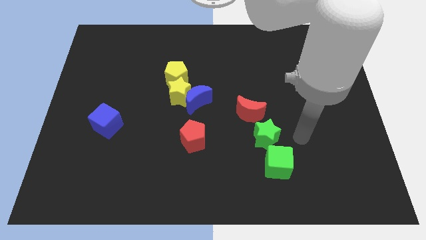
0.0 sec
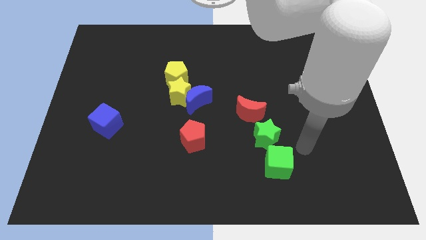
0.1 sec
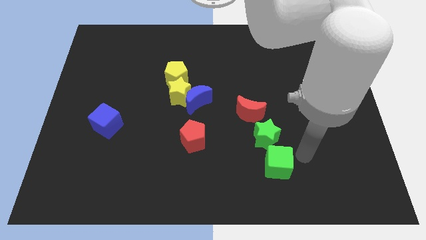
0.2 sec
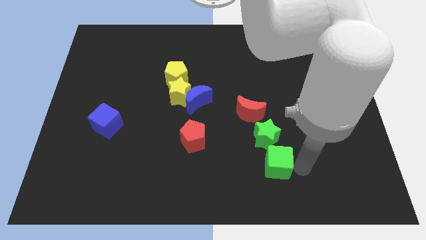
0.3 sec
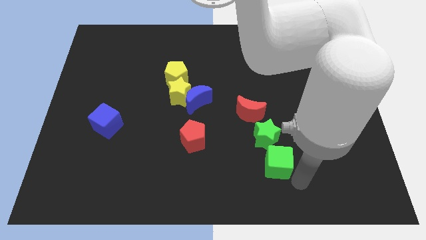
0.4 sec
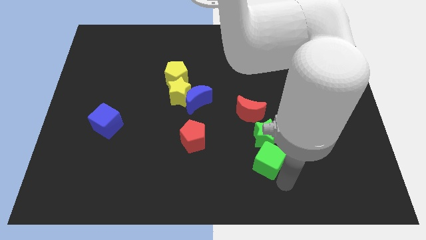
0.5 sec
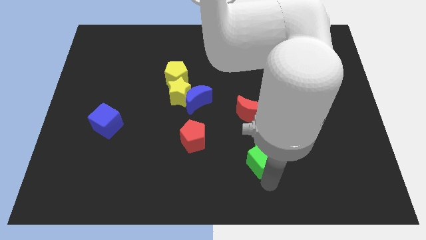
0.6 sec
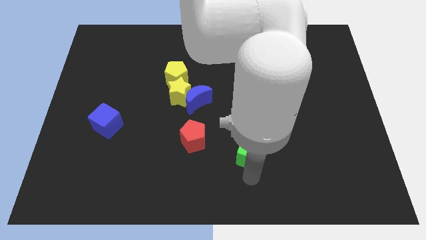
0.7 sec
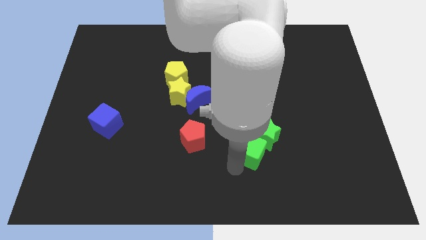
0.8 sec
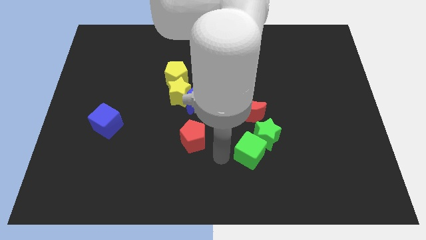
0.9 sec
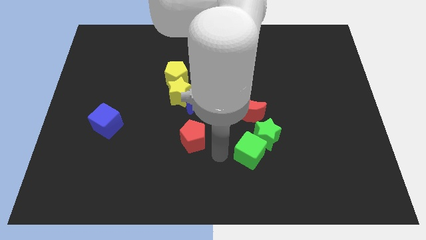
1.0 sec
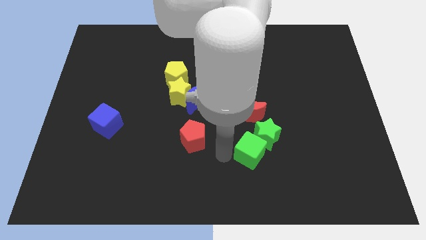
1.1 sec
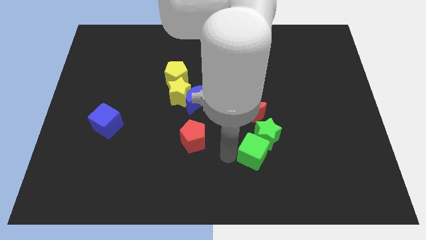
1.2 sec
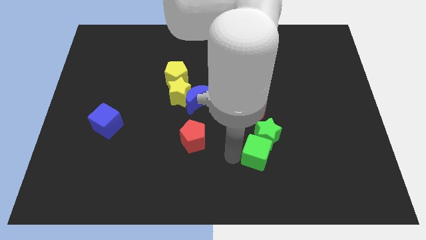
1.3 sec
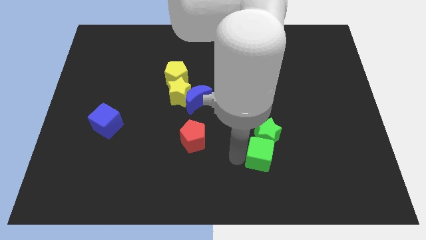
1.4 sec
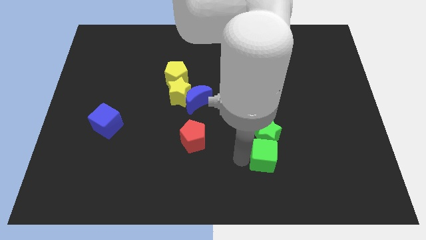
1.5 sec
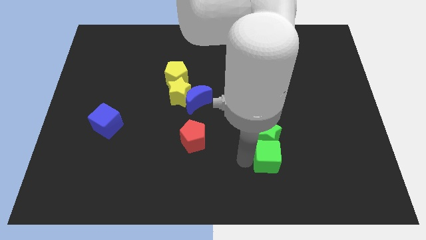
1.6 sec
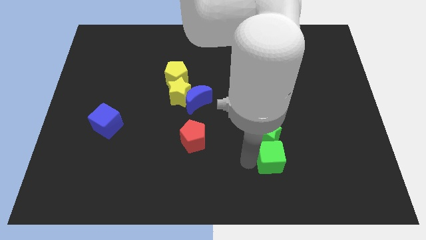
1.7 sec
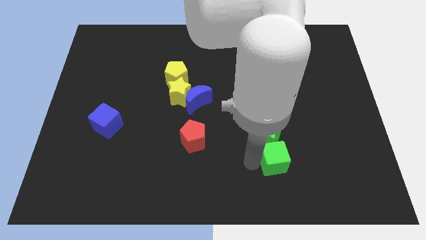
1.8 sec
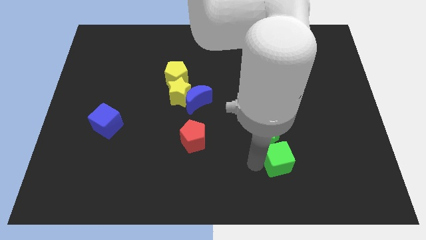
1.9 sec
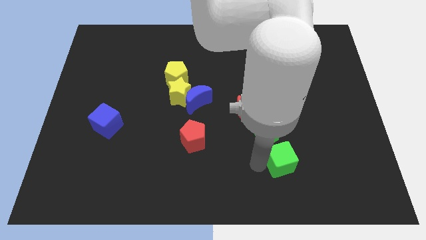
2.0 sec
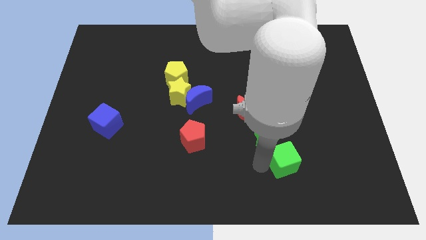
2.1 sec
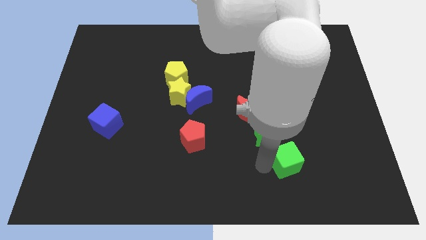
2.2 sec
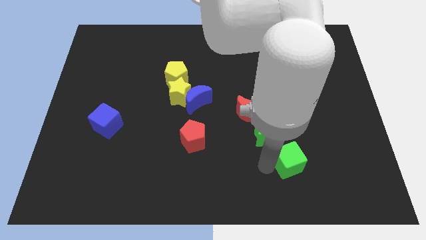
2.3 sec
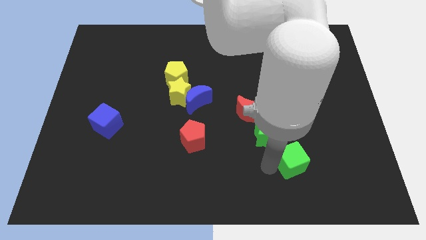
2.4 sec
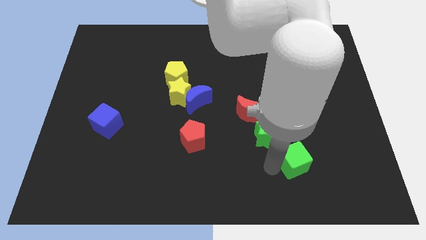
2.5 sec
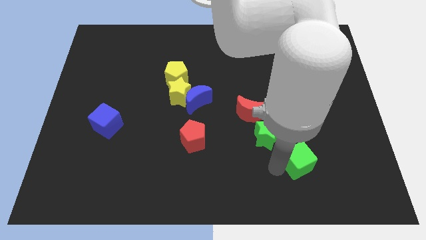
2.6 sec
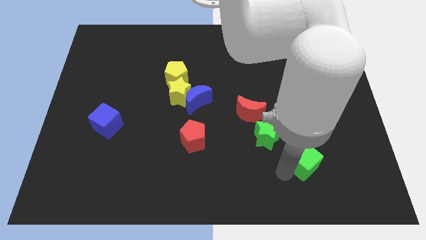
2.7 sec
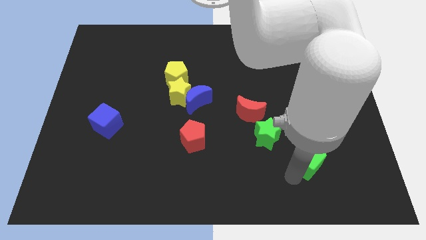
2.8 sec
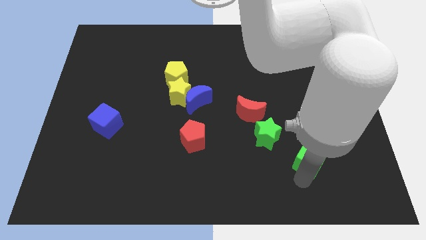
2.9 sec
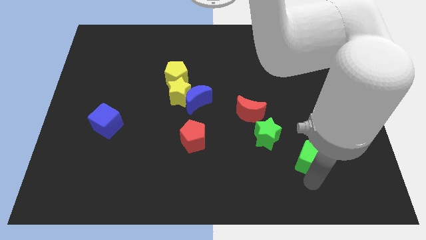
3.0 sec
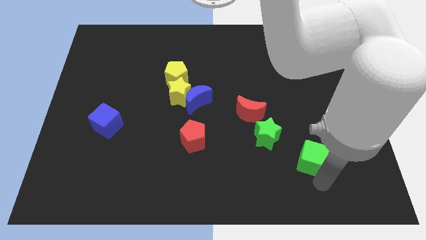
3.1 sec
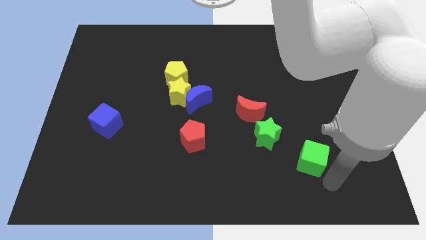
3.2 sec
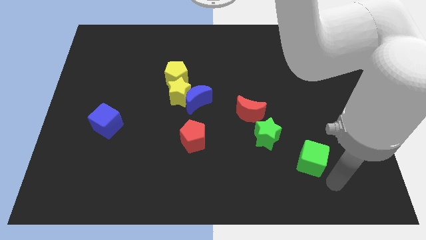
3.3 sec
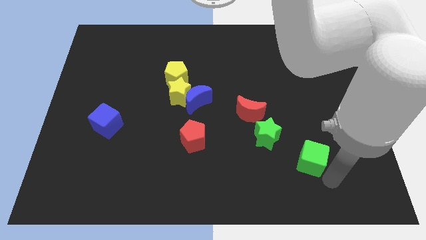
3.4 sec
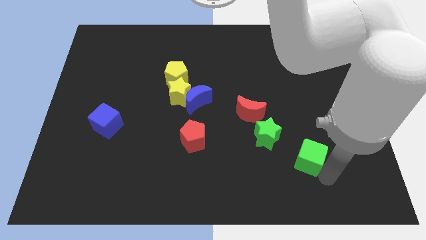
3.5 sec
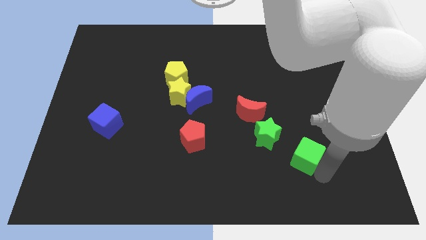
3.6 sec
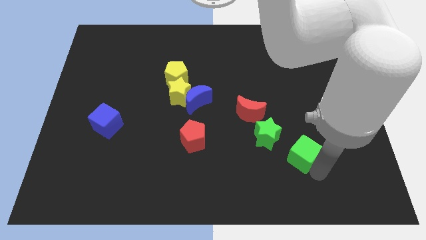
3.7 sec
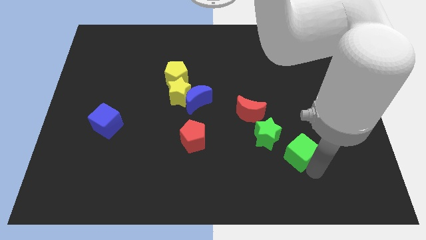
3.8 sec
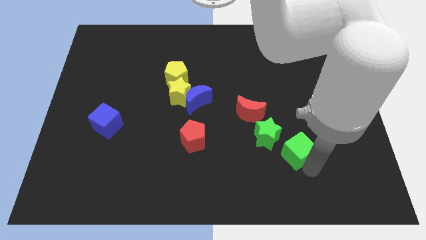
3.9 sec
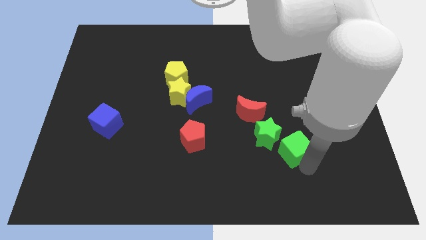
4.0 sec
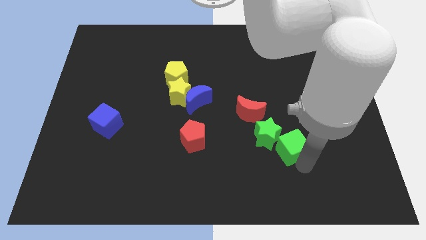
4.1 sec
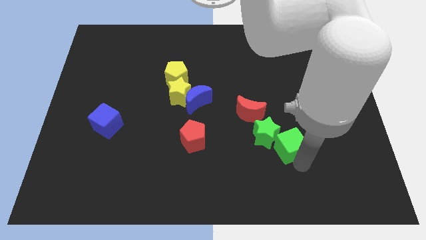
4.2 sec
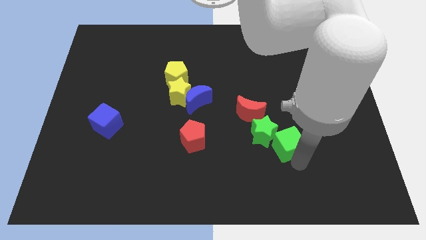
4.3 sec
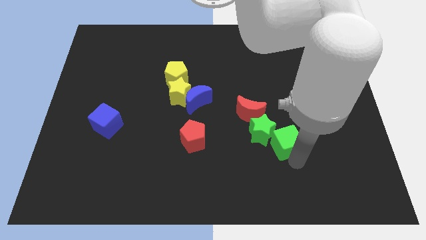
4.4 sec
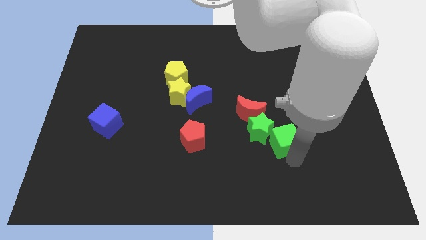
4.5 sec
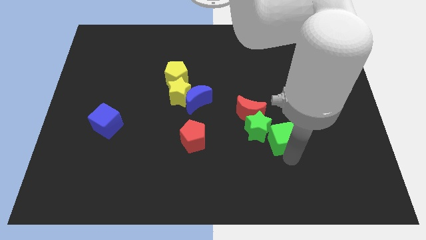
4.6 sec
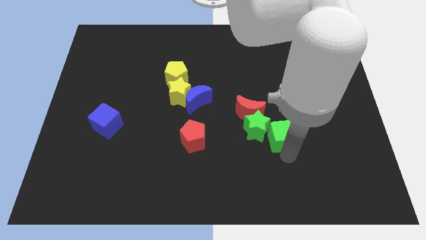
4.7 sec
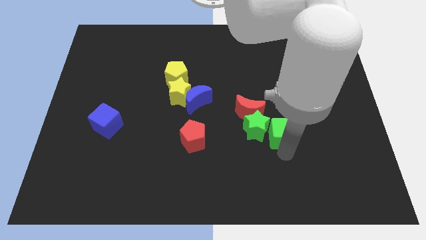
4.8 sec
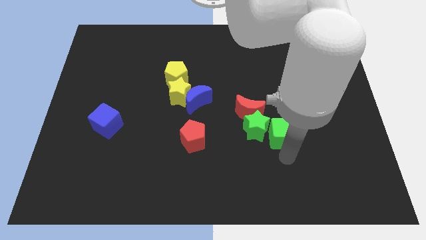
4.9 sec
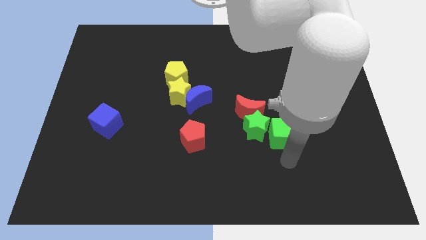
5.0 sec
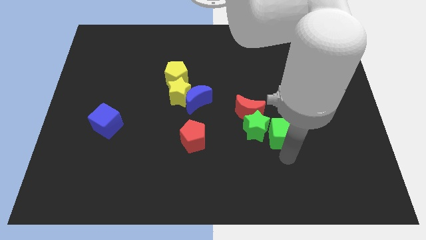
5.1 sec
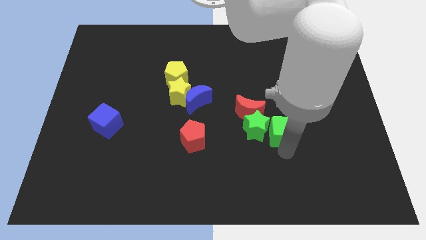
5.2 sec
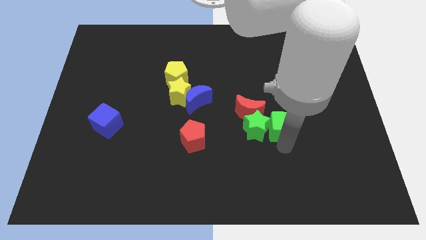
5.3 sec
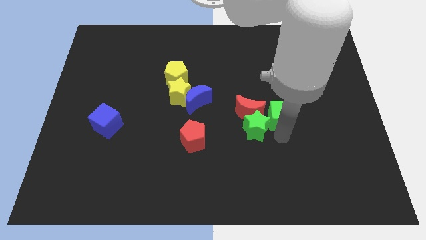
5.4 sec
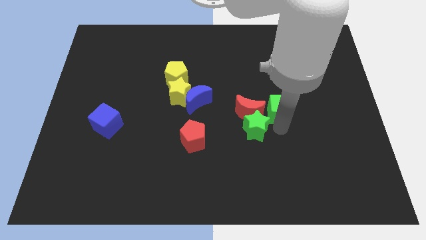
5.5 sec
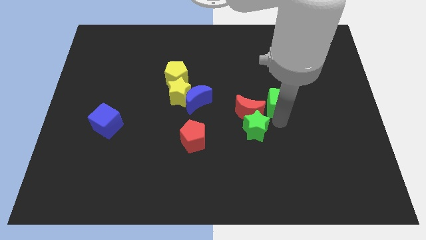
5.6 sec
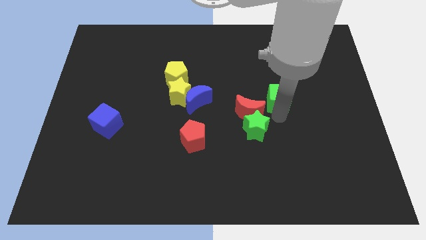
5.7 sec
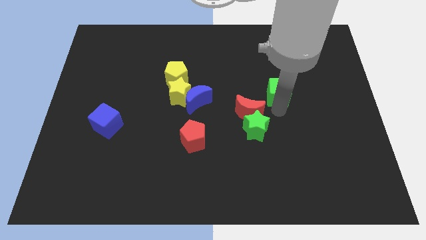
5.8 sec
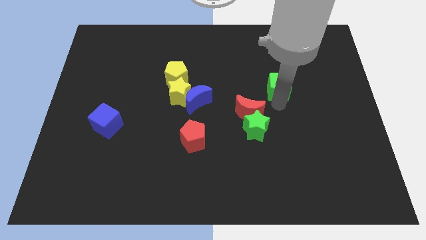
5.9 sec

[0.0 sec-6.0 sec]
push the green cube upwards

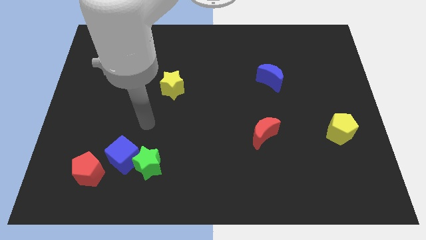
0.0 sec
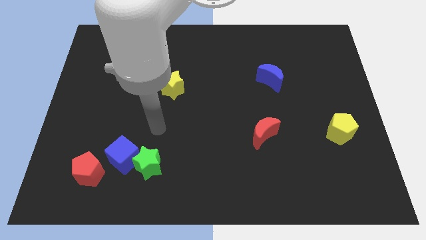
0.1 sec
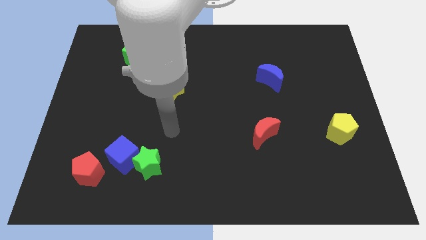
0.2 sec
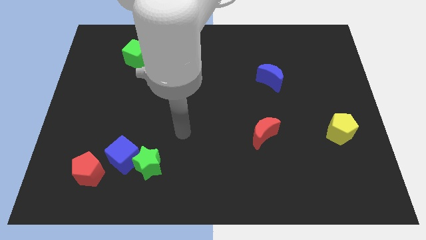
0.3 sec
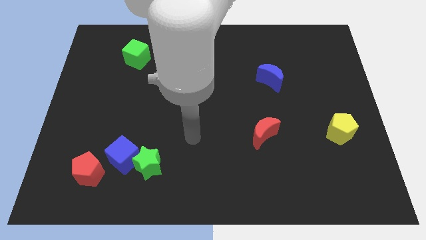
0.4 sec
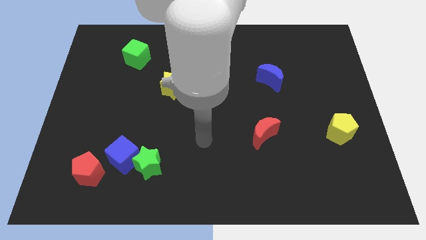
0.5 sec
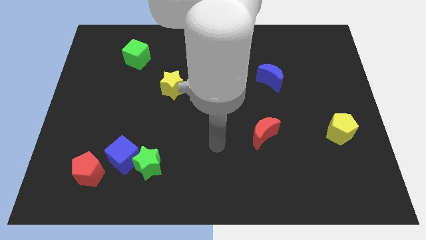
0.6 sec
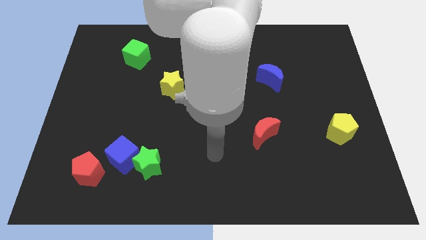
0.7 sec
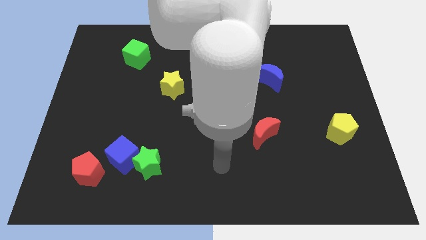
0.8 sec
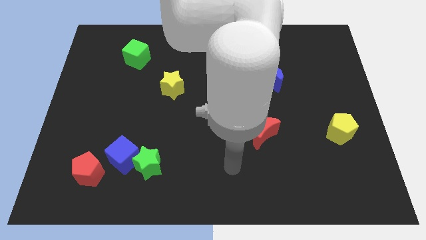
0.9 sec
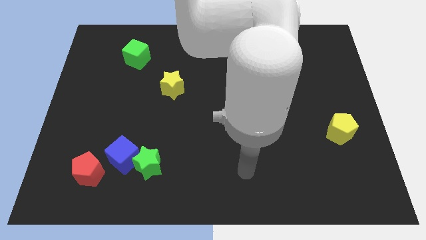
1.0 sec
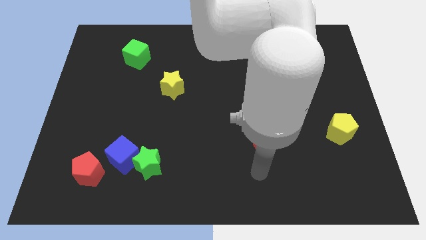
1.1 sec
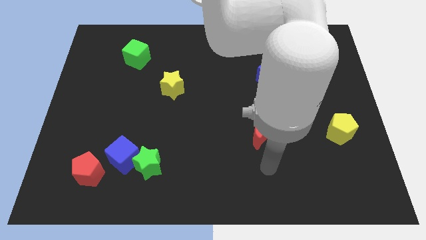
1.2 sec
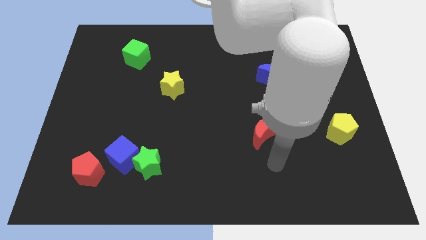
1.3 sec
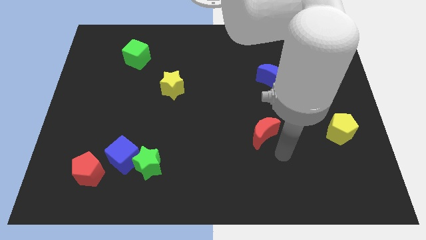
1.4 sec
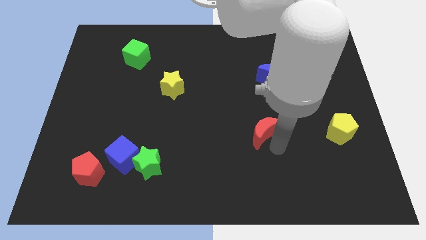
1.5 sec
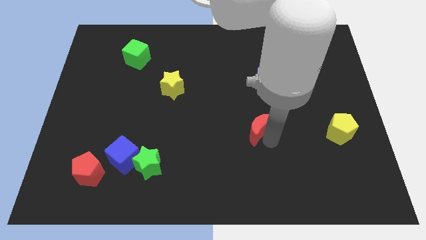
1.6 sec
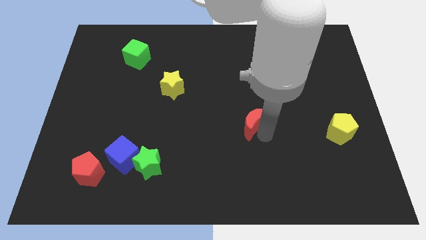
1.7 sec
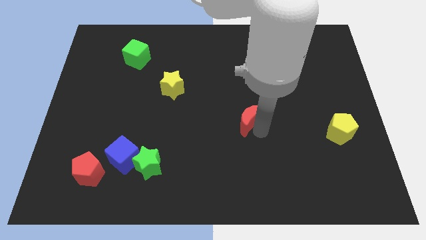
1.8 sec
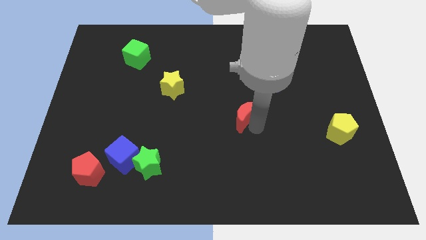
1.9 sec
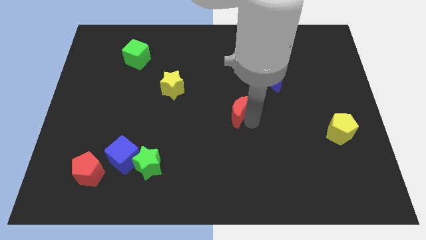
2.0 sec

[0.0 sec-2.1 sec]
slide the red moon up and left a little bit
